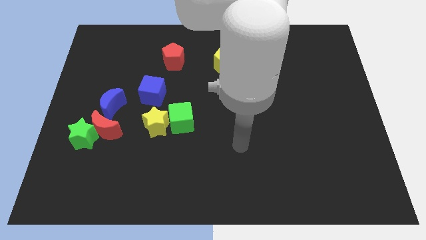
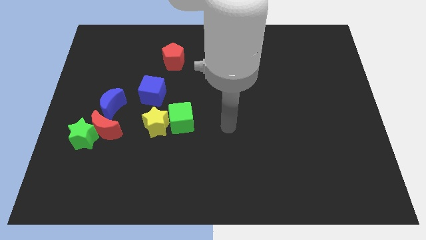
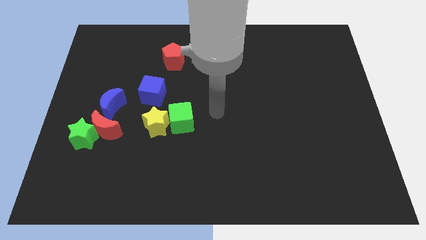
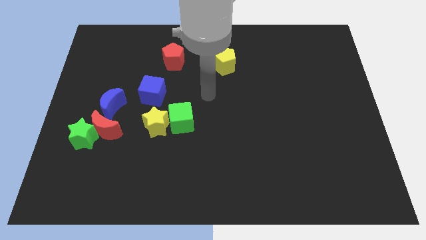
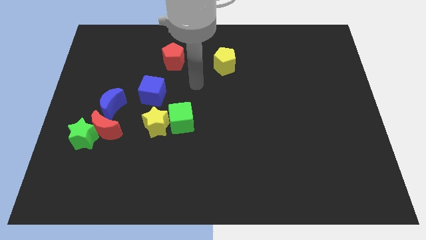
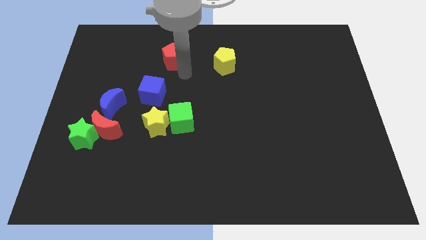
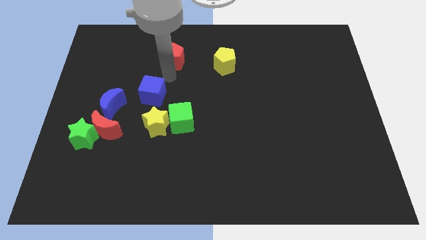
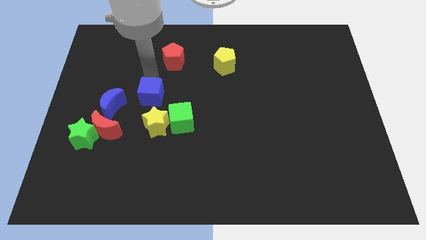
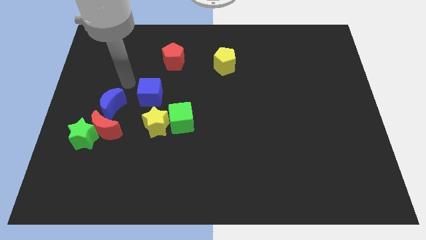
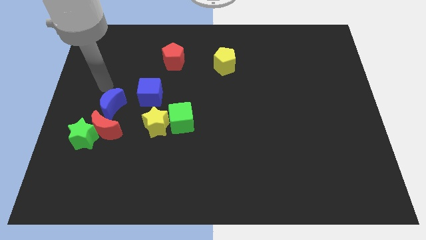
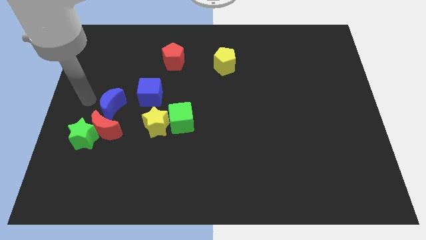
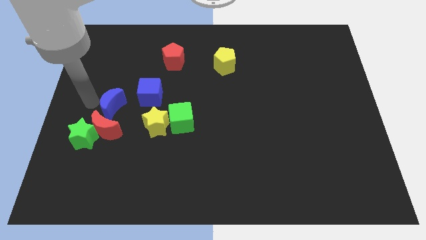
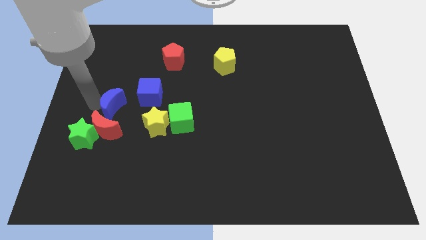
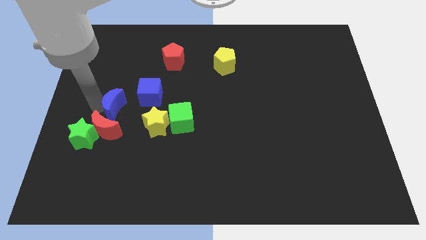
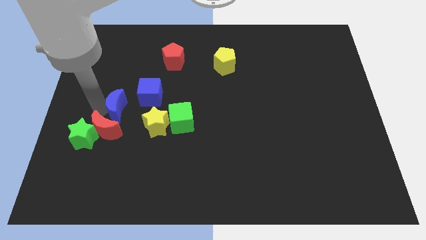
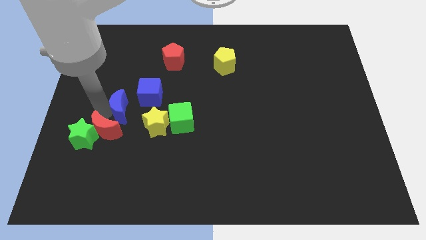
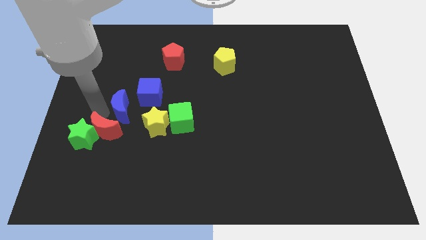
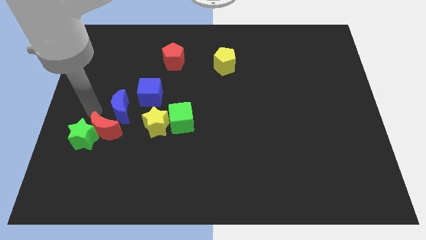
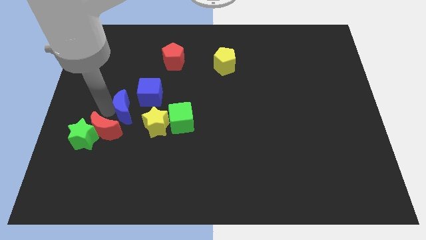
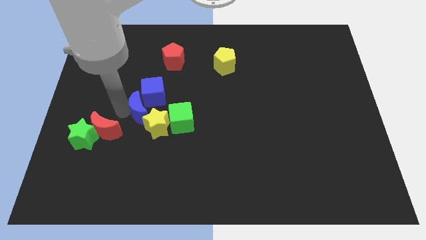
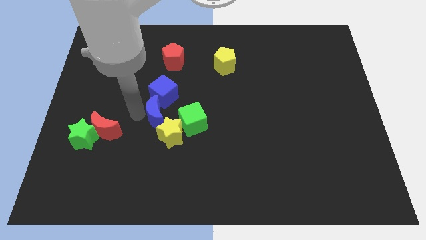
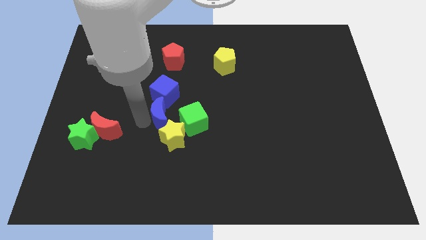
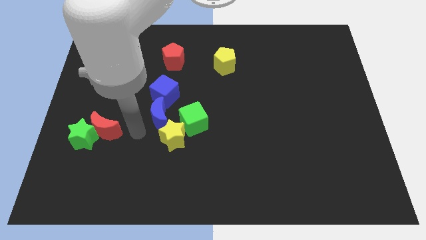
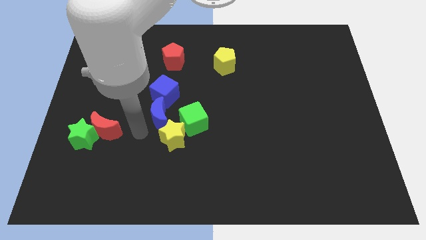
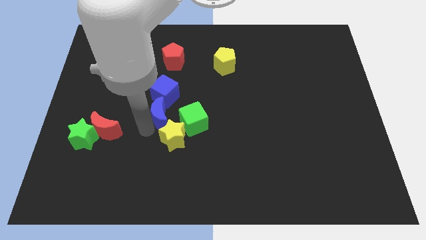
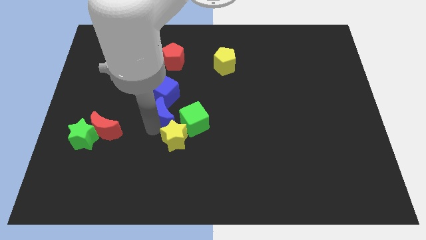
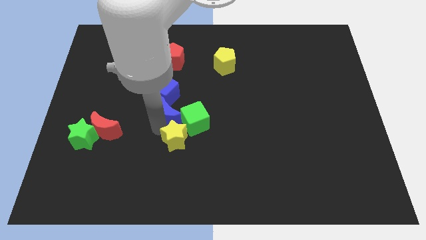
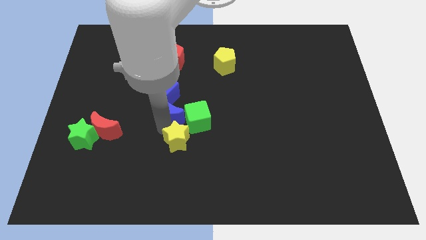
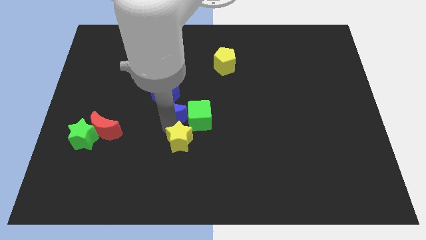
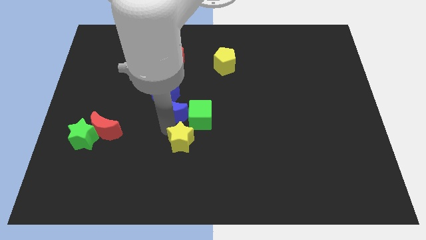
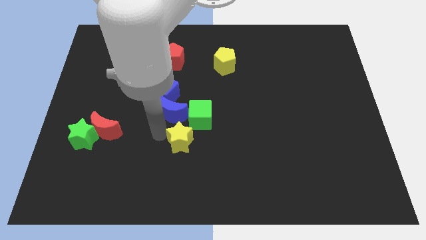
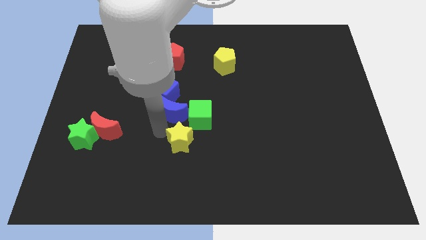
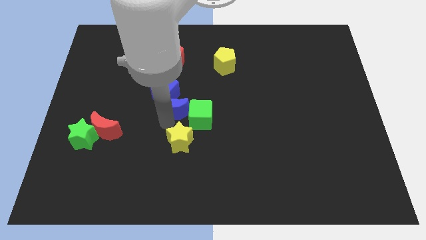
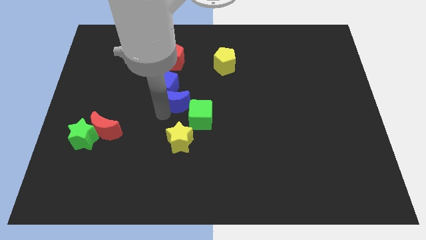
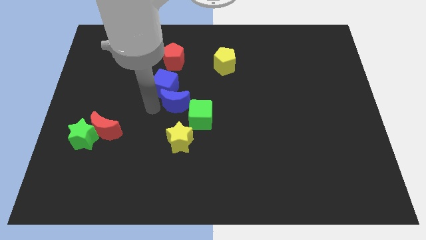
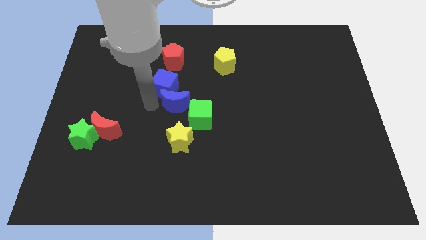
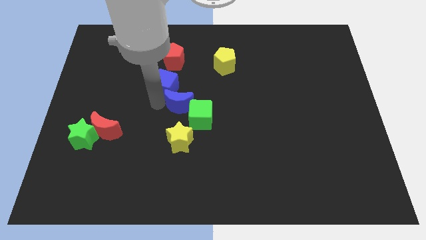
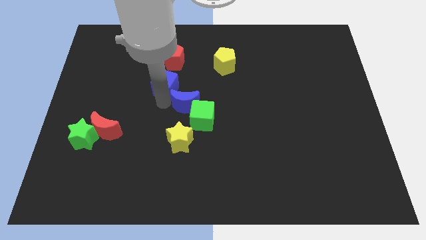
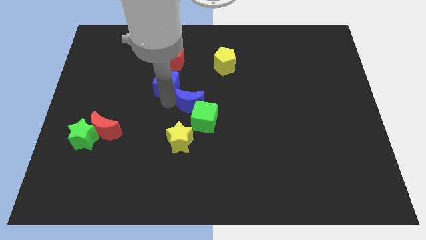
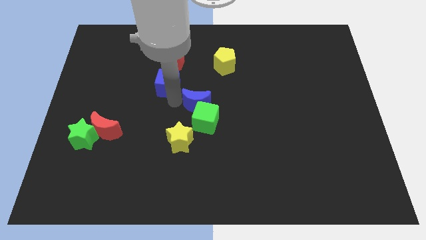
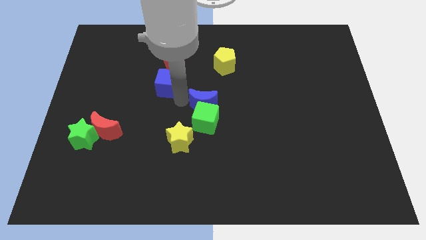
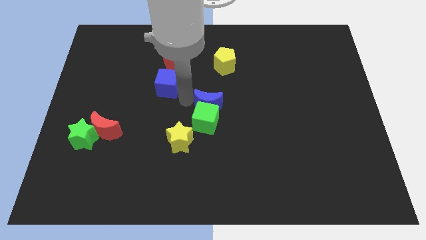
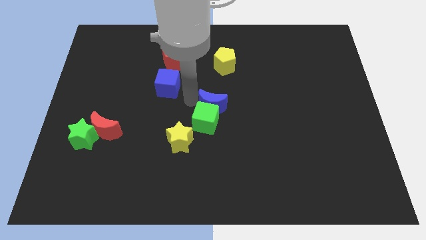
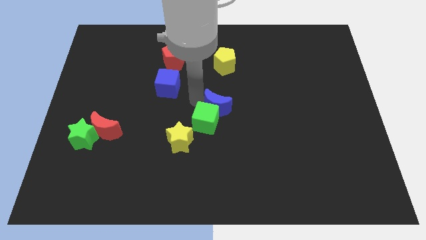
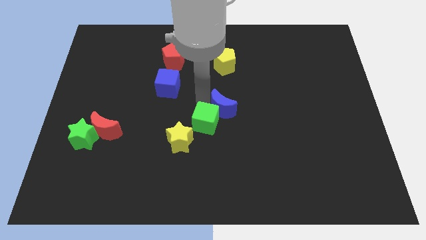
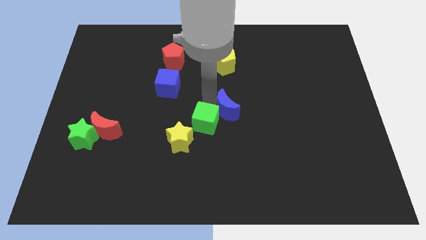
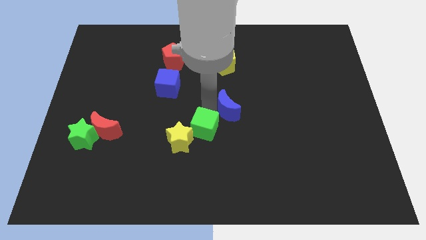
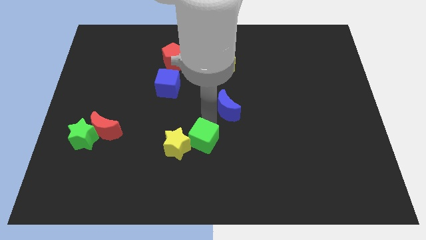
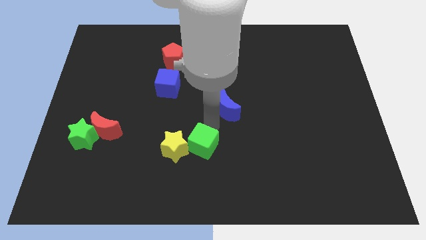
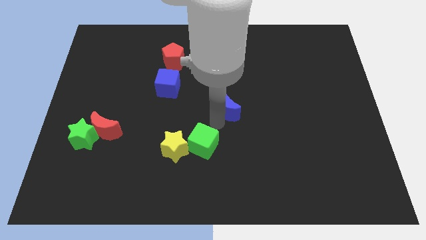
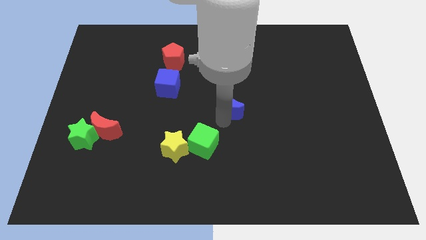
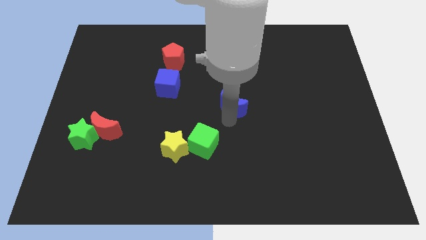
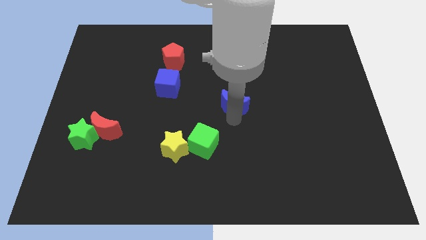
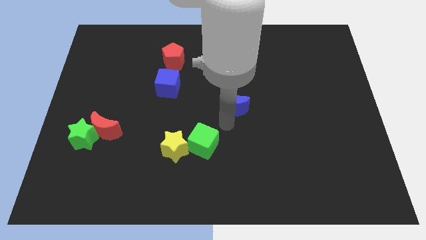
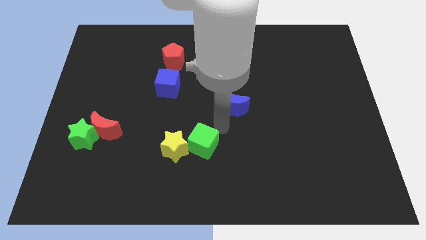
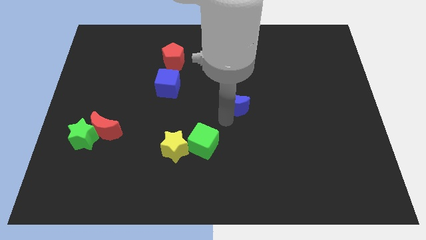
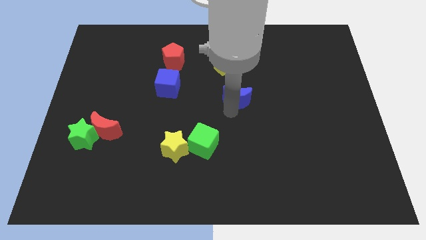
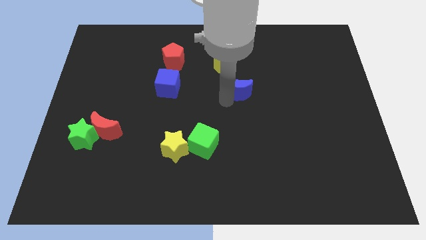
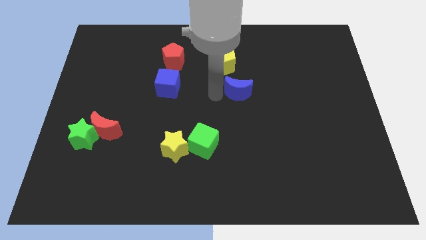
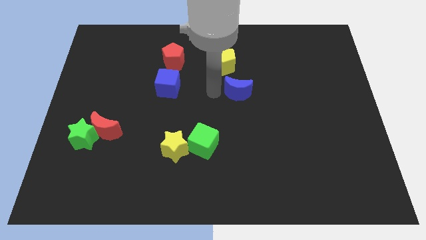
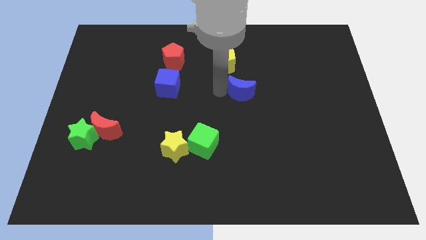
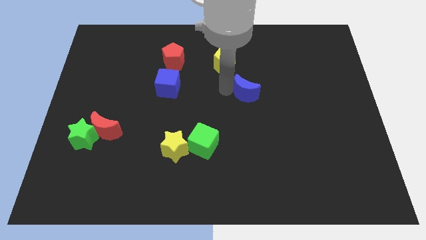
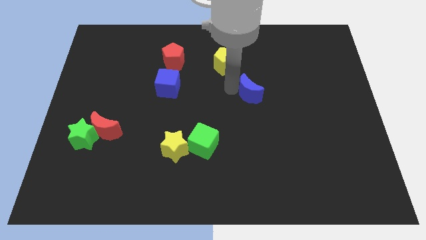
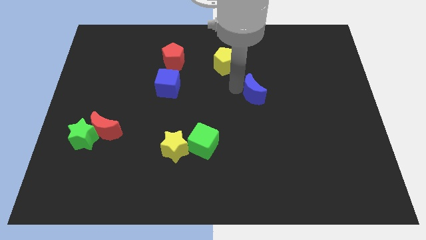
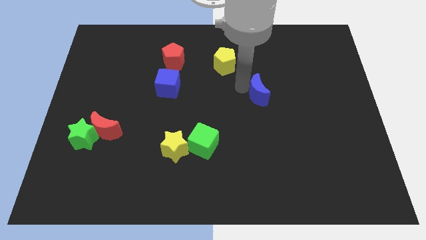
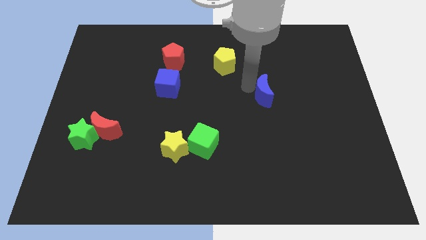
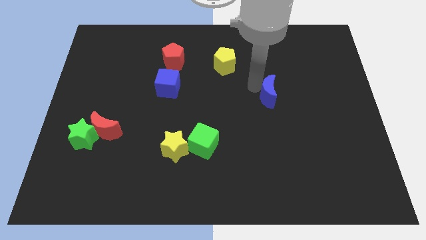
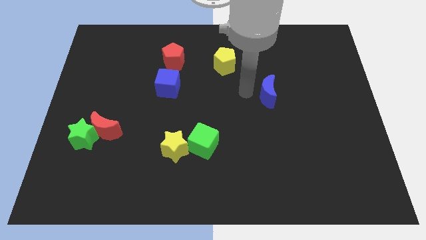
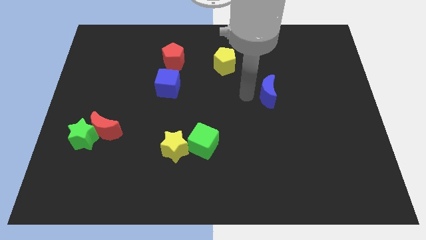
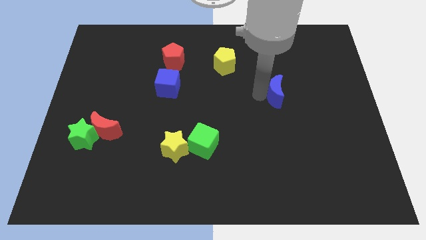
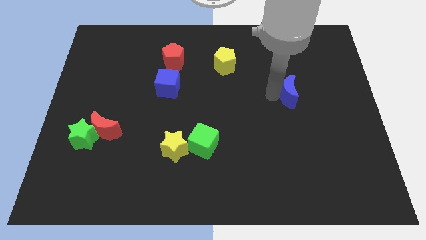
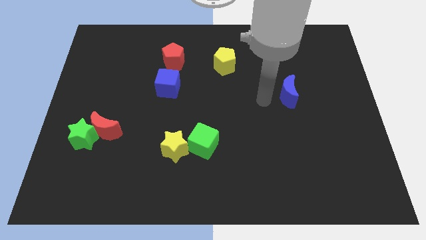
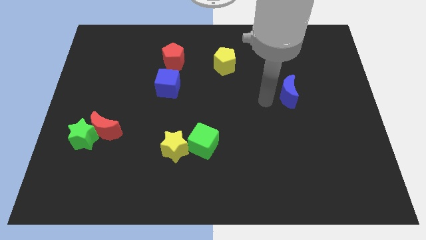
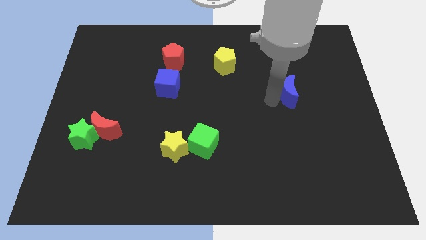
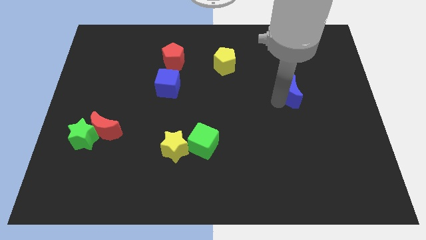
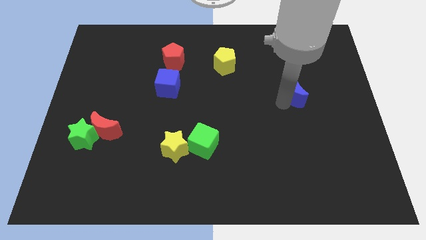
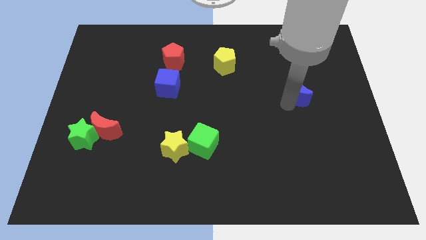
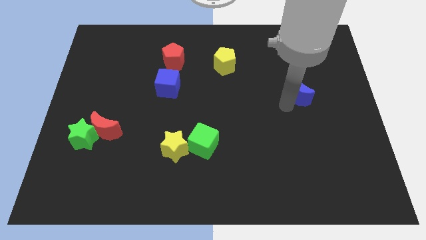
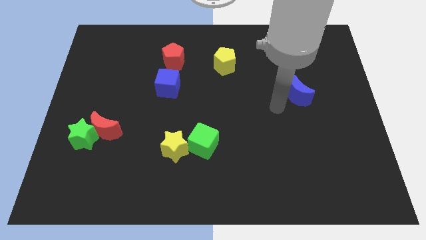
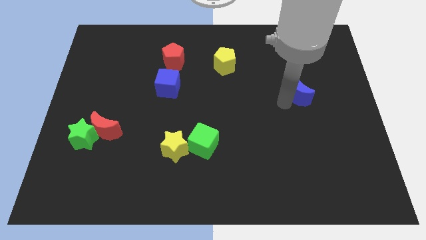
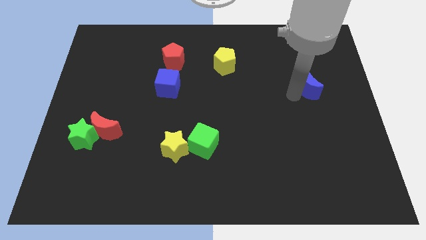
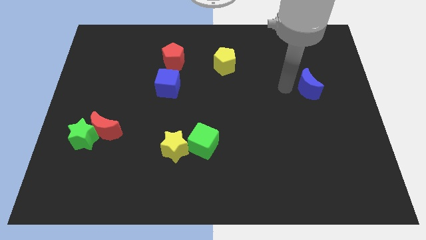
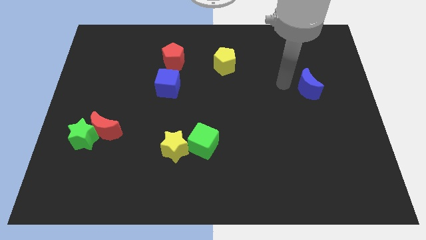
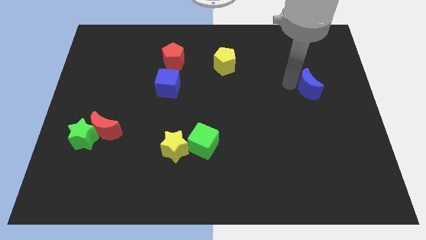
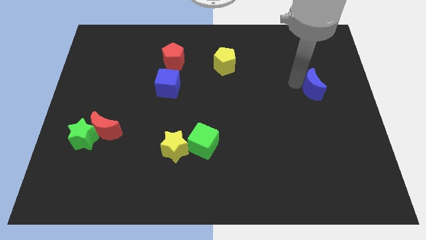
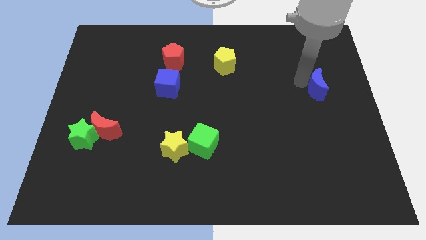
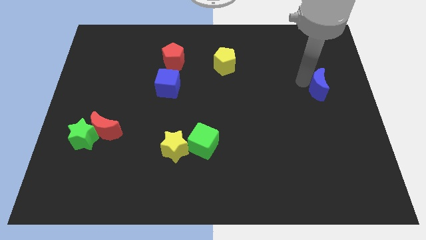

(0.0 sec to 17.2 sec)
move the blue moon to the right side
